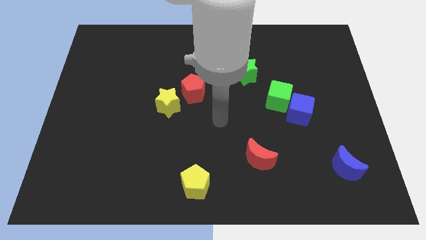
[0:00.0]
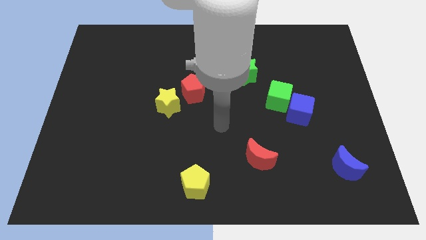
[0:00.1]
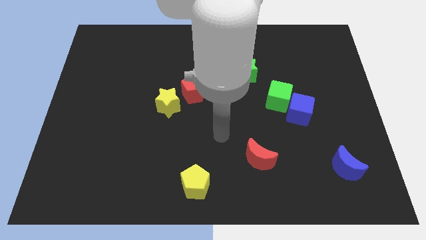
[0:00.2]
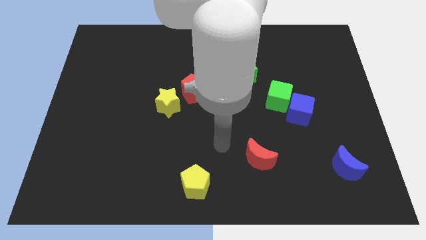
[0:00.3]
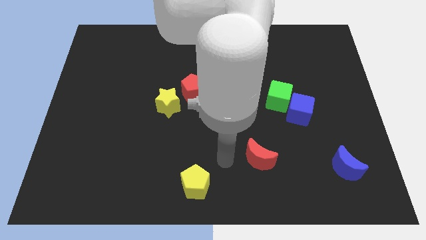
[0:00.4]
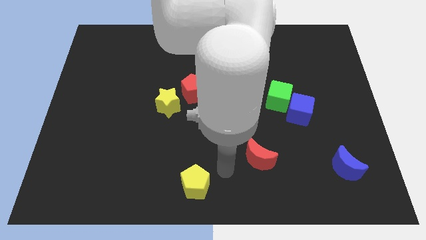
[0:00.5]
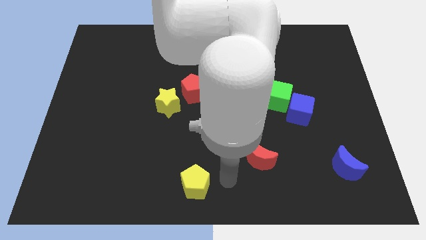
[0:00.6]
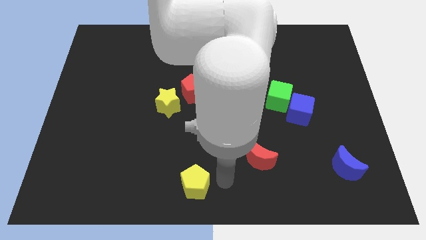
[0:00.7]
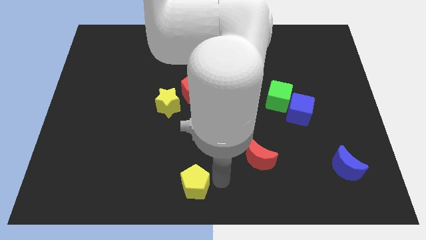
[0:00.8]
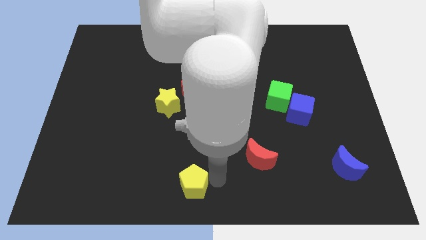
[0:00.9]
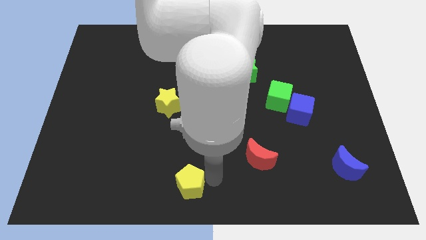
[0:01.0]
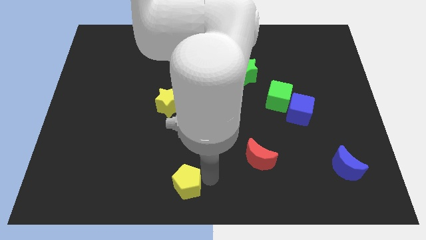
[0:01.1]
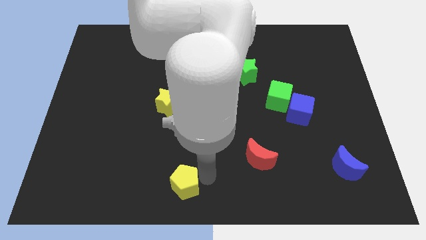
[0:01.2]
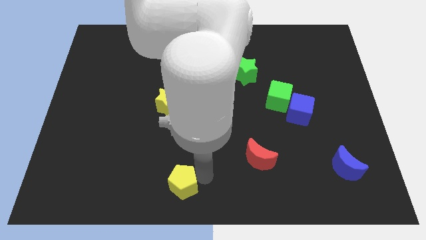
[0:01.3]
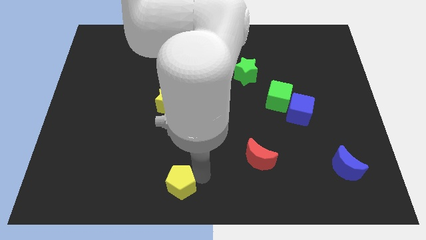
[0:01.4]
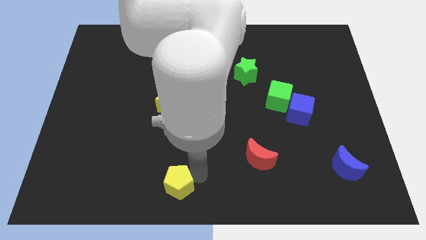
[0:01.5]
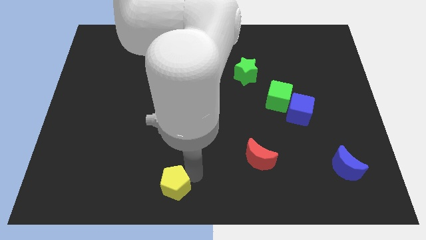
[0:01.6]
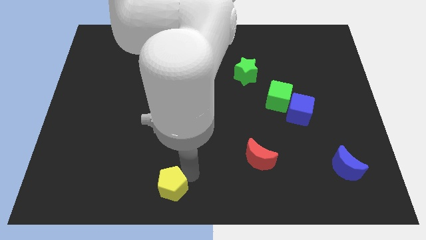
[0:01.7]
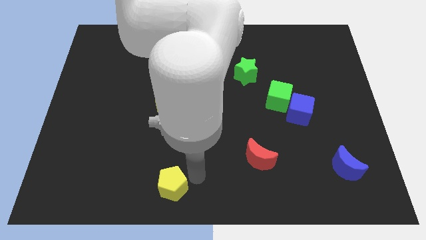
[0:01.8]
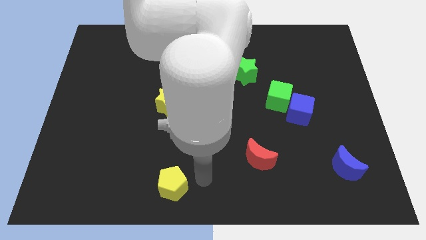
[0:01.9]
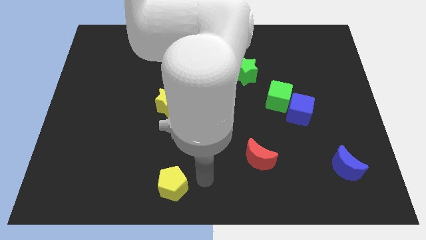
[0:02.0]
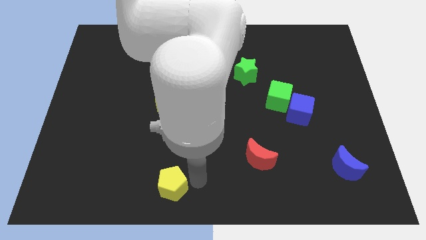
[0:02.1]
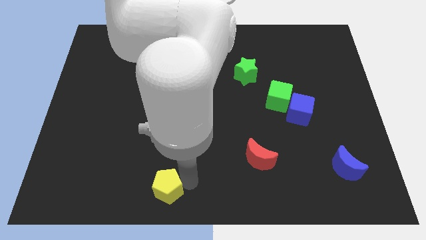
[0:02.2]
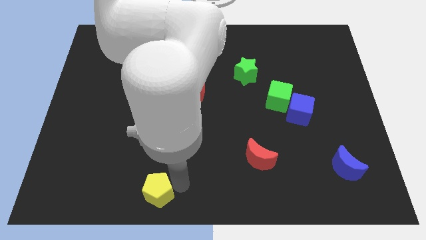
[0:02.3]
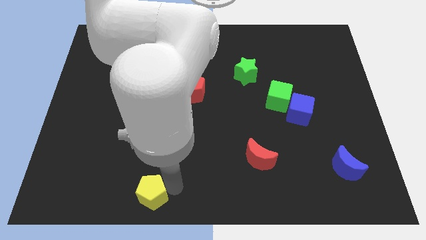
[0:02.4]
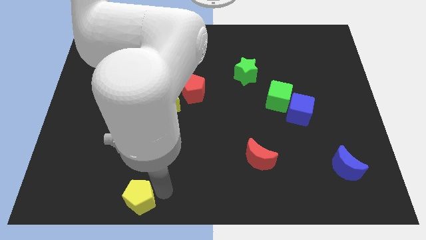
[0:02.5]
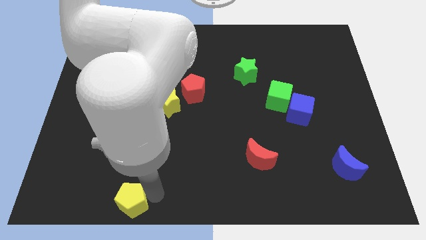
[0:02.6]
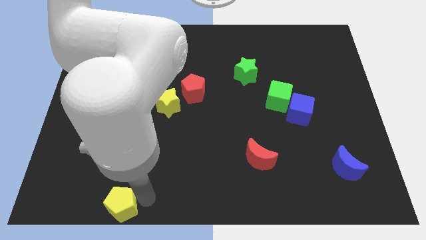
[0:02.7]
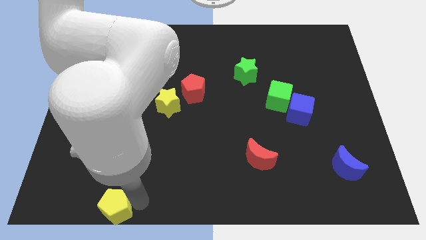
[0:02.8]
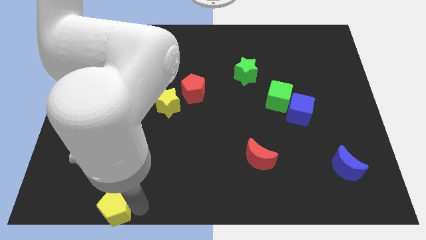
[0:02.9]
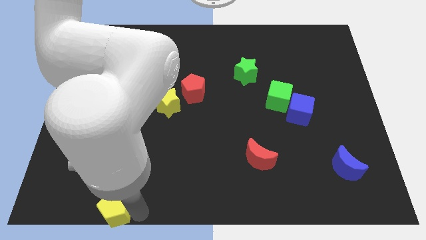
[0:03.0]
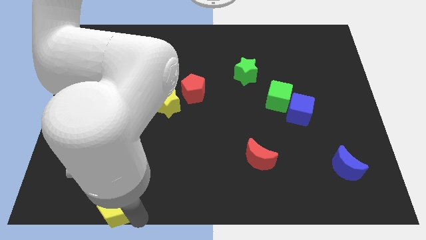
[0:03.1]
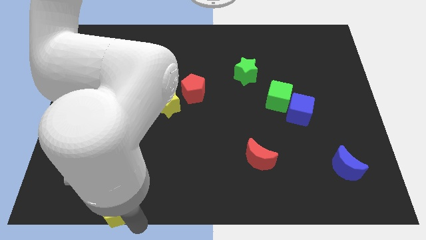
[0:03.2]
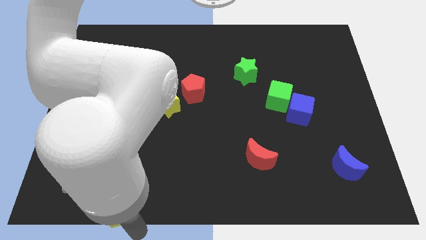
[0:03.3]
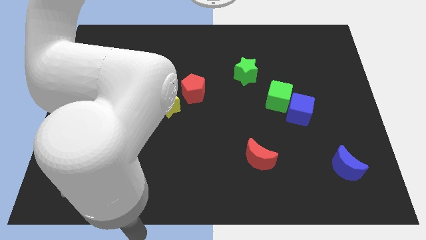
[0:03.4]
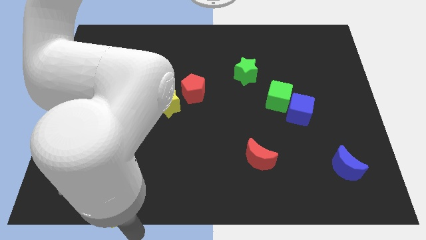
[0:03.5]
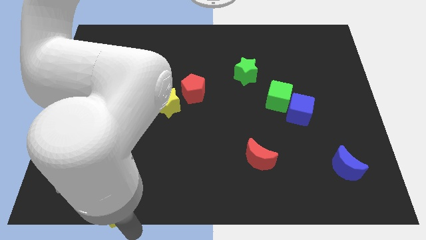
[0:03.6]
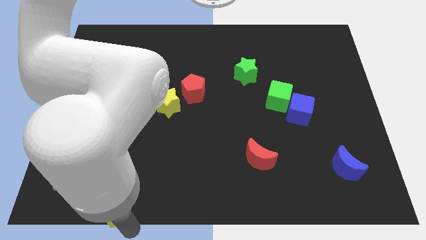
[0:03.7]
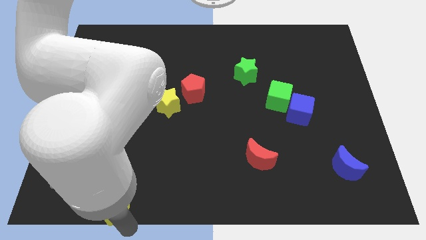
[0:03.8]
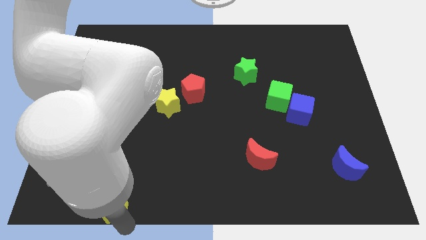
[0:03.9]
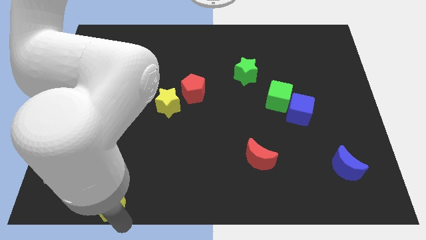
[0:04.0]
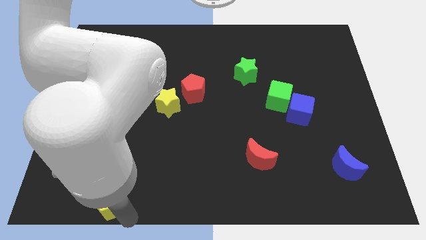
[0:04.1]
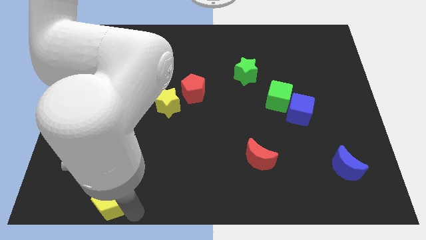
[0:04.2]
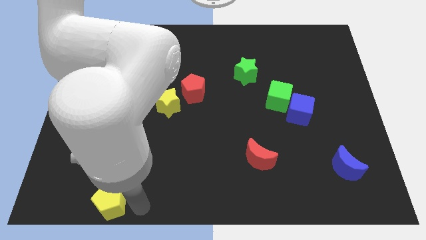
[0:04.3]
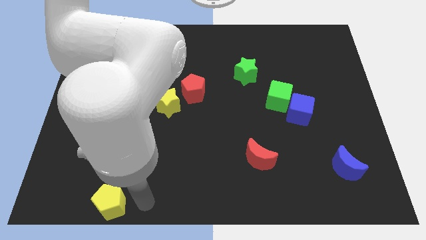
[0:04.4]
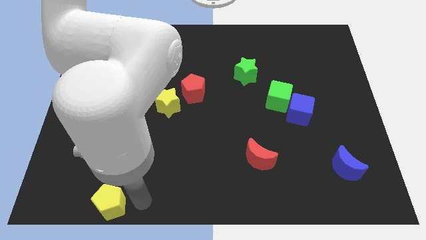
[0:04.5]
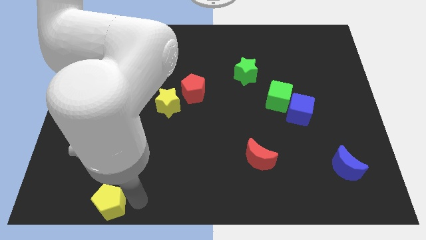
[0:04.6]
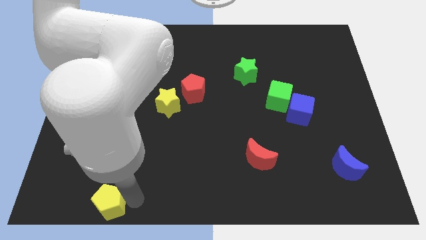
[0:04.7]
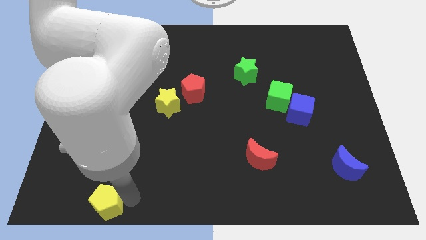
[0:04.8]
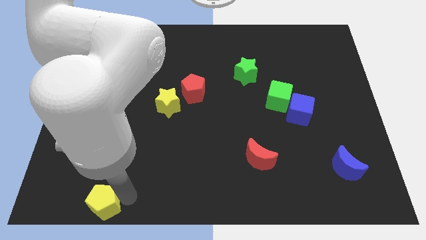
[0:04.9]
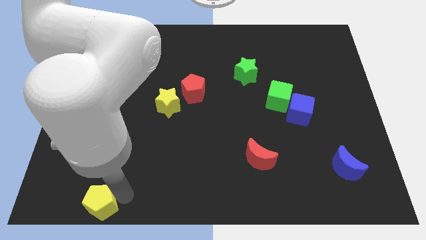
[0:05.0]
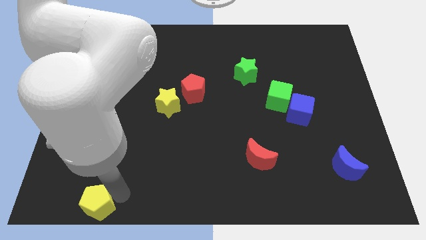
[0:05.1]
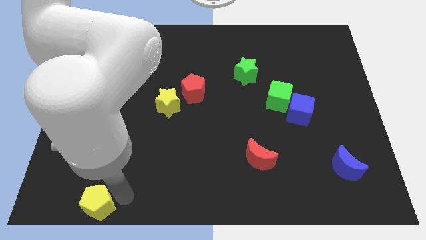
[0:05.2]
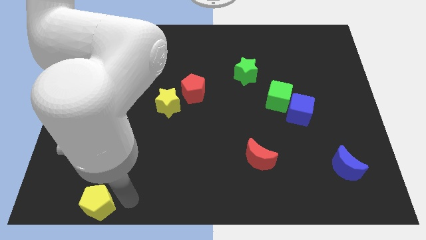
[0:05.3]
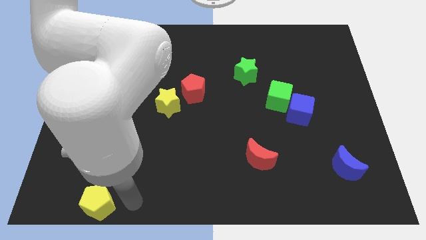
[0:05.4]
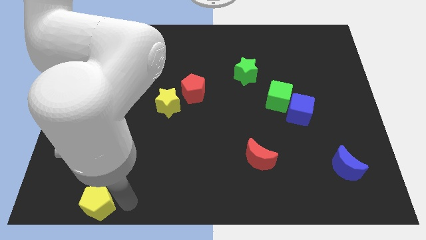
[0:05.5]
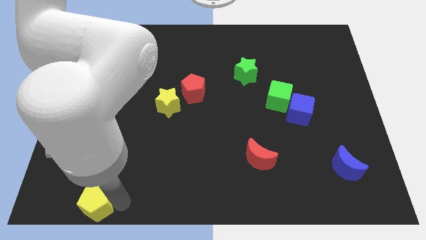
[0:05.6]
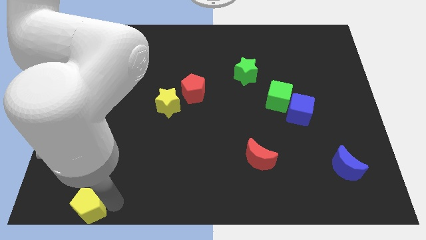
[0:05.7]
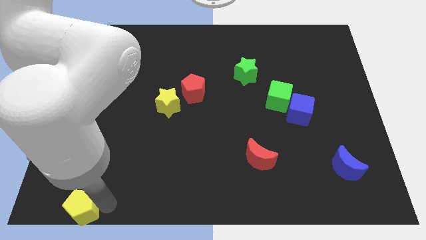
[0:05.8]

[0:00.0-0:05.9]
slide the yellow pentagon to the bottom left
